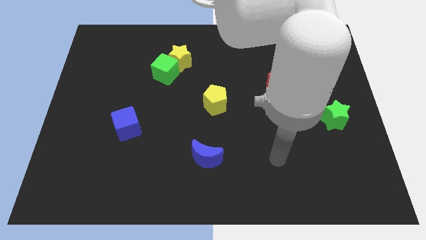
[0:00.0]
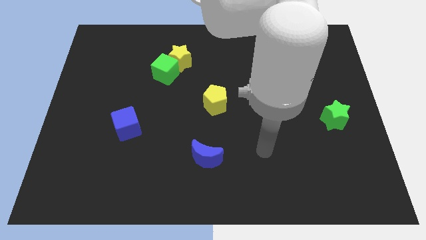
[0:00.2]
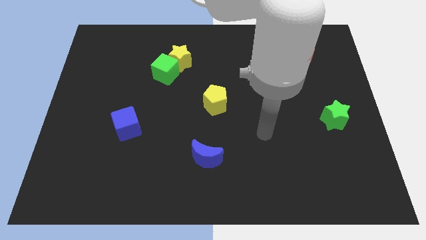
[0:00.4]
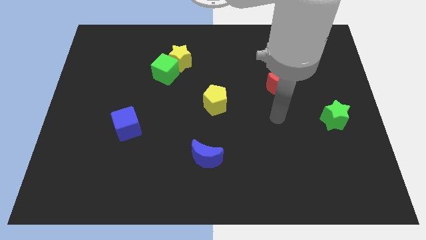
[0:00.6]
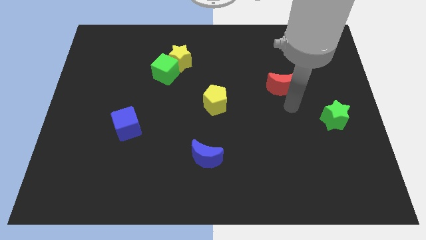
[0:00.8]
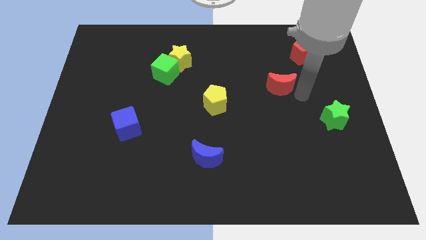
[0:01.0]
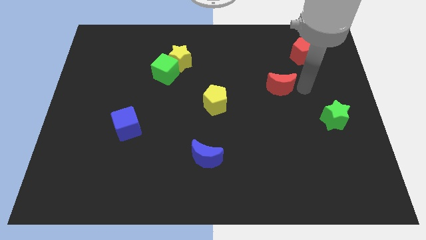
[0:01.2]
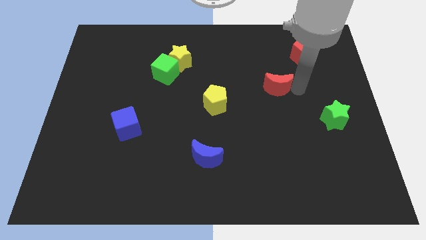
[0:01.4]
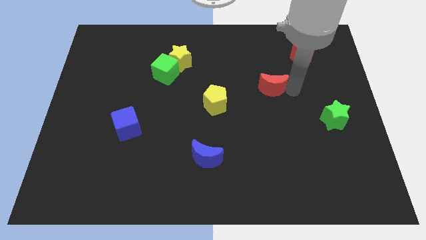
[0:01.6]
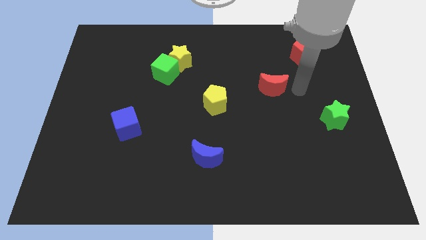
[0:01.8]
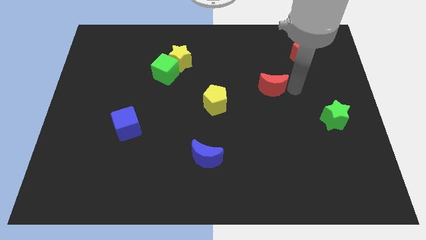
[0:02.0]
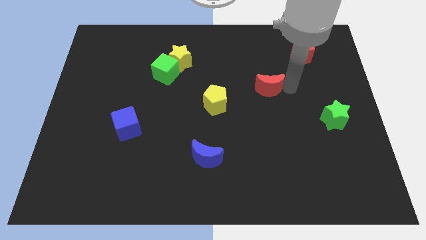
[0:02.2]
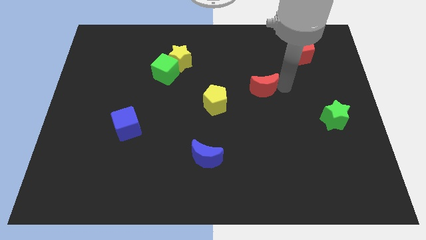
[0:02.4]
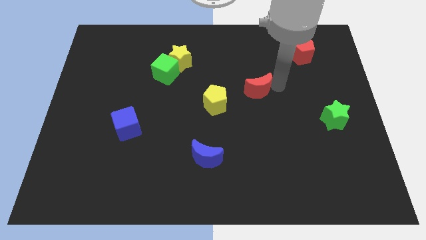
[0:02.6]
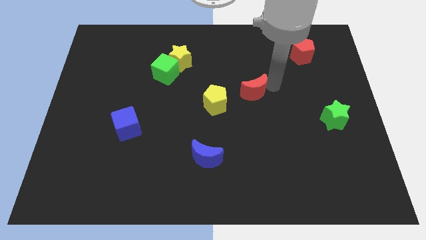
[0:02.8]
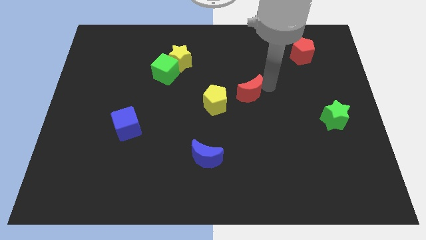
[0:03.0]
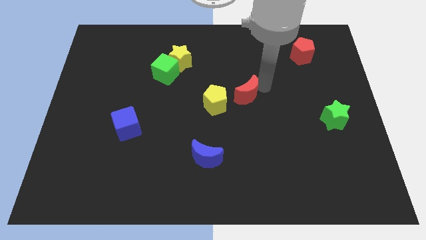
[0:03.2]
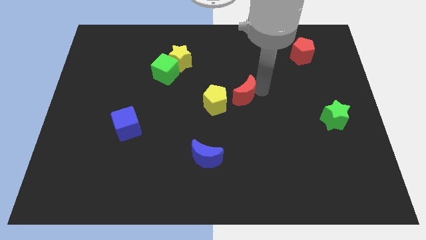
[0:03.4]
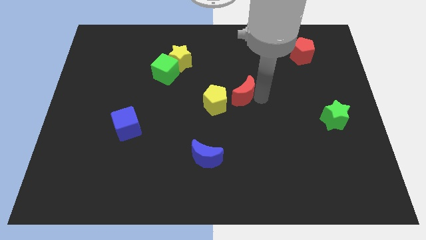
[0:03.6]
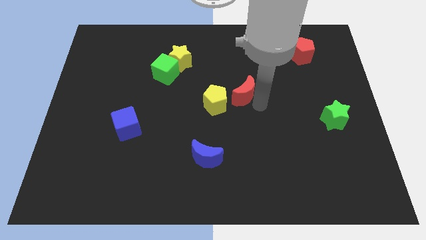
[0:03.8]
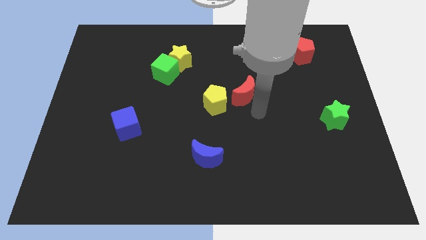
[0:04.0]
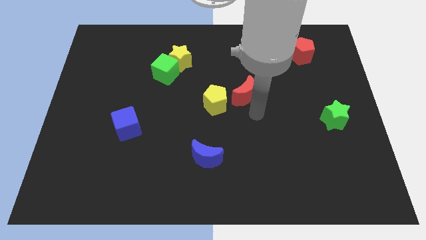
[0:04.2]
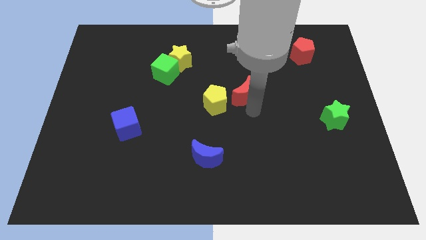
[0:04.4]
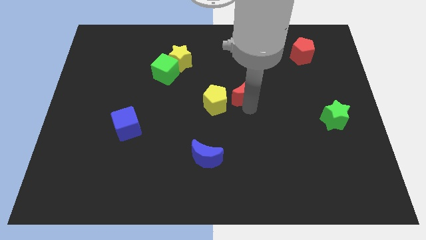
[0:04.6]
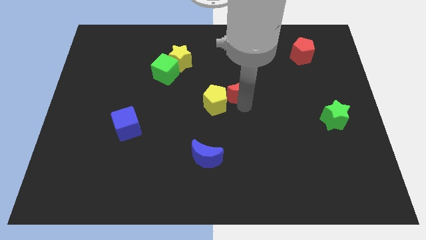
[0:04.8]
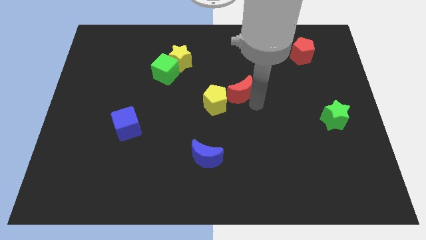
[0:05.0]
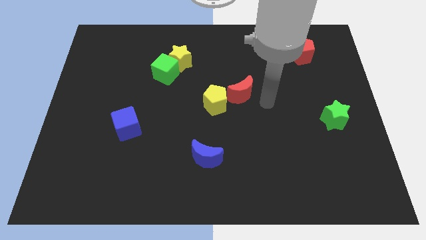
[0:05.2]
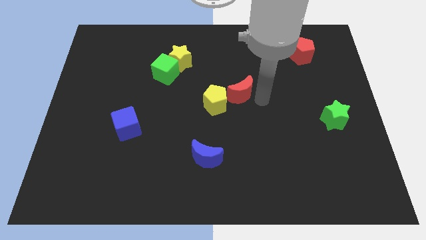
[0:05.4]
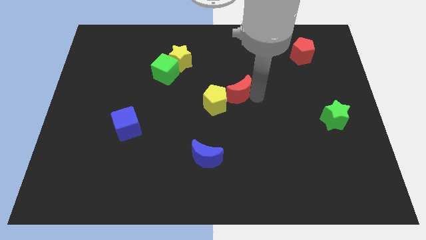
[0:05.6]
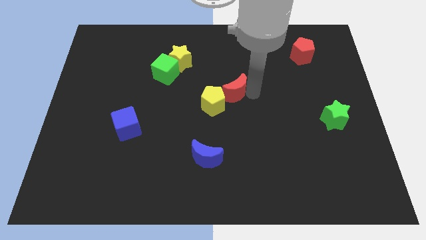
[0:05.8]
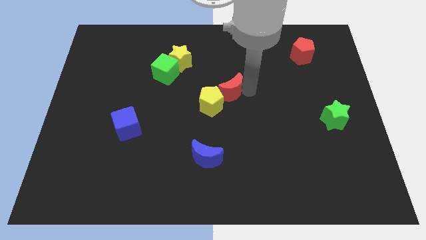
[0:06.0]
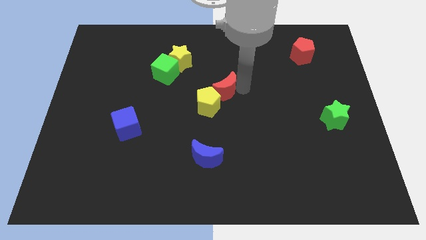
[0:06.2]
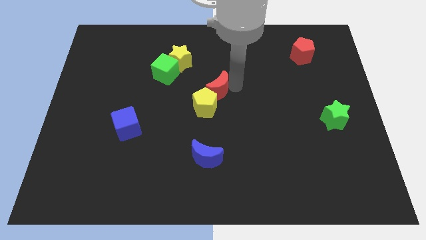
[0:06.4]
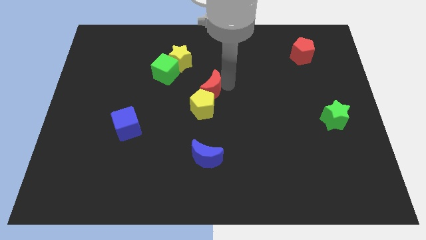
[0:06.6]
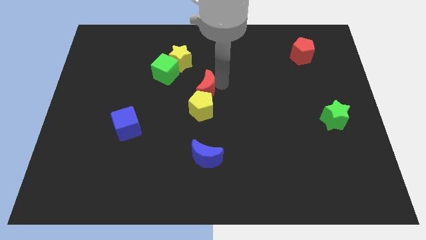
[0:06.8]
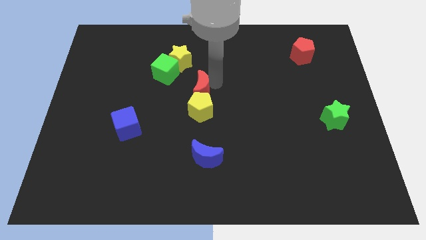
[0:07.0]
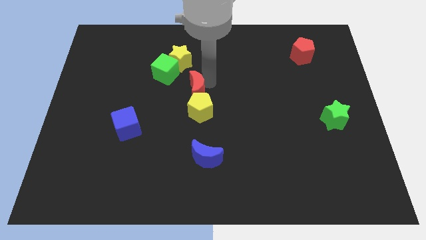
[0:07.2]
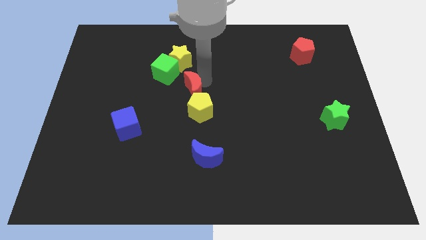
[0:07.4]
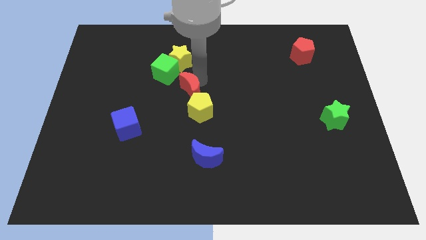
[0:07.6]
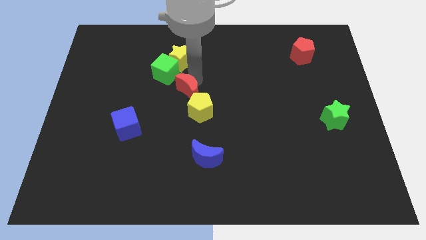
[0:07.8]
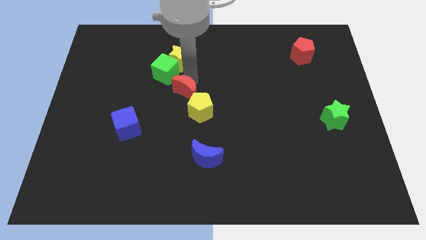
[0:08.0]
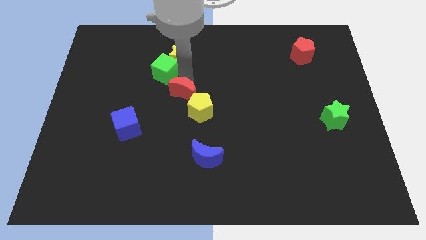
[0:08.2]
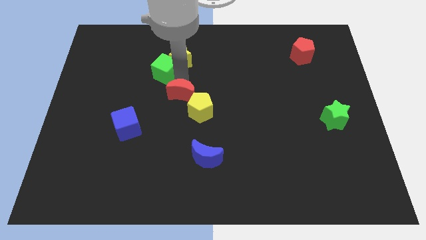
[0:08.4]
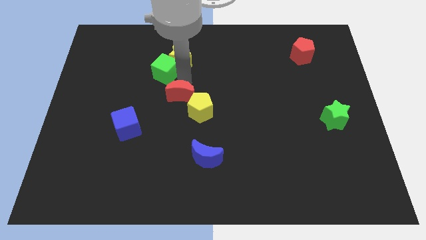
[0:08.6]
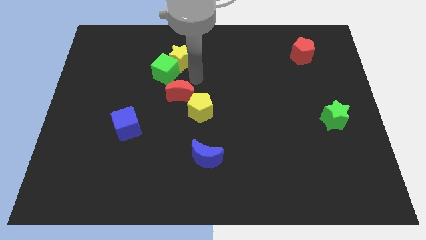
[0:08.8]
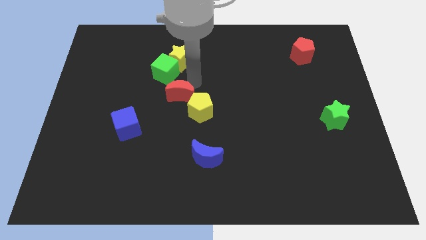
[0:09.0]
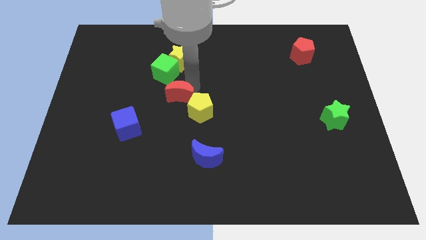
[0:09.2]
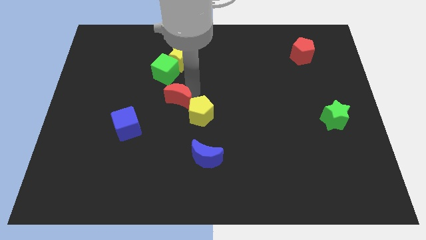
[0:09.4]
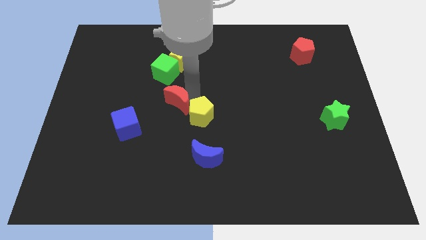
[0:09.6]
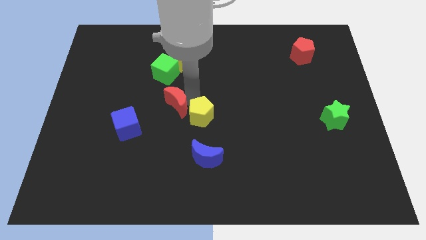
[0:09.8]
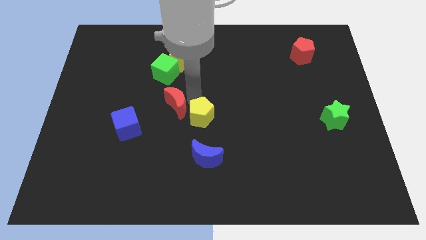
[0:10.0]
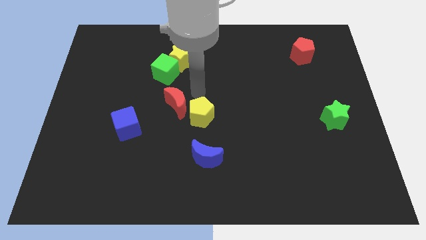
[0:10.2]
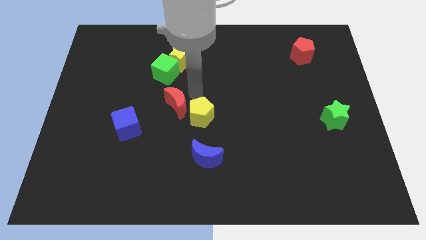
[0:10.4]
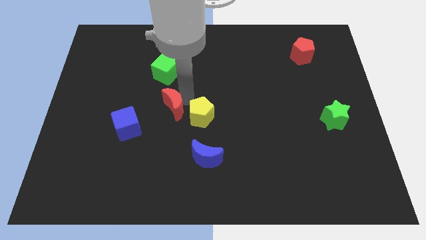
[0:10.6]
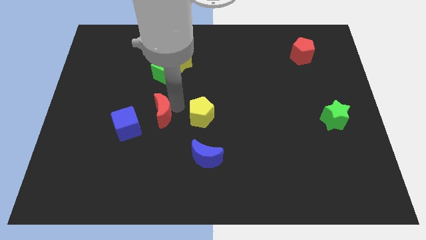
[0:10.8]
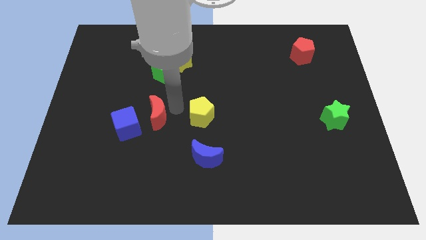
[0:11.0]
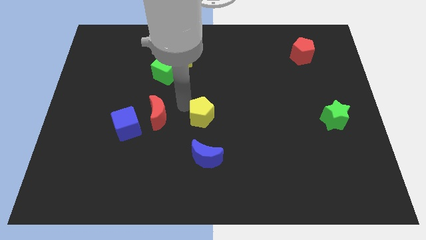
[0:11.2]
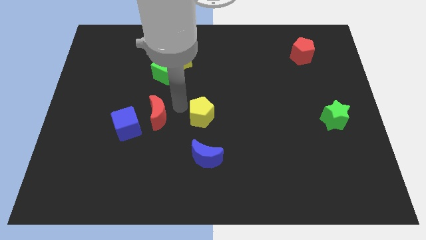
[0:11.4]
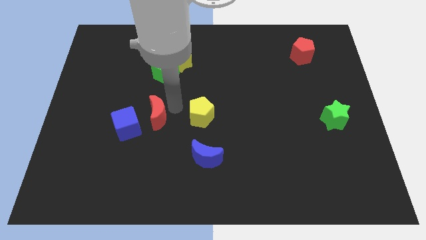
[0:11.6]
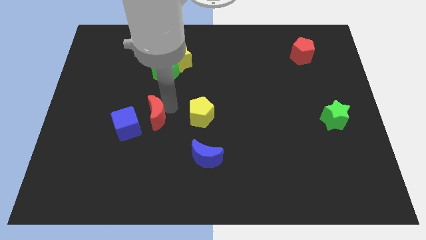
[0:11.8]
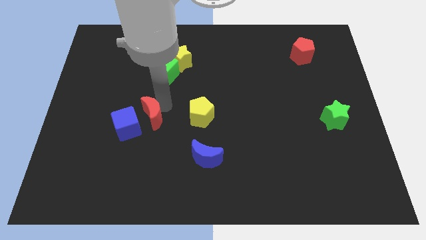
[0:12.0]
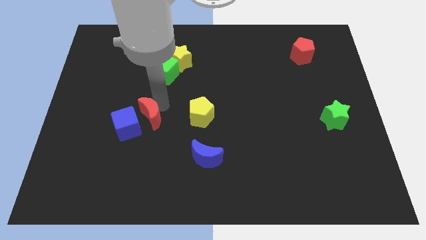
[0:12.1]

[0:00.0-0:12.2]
put the red moon close to the blue cube

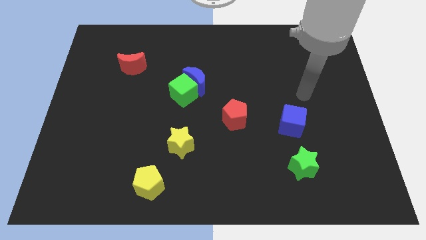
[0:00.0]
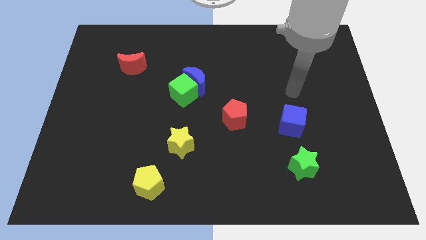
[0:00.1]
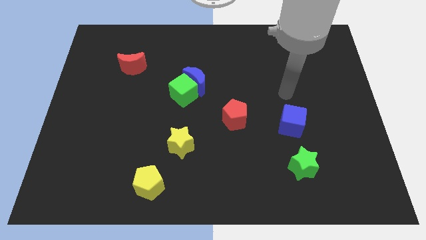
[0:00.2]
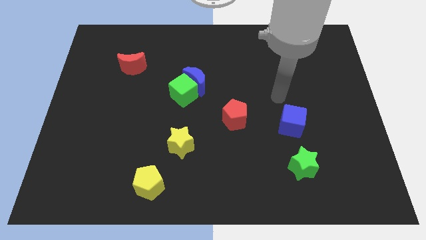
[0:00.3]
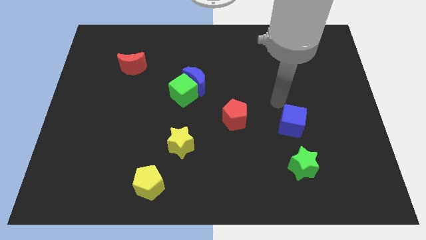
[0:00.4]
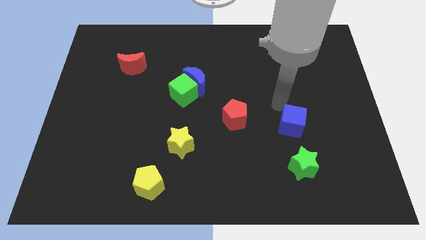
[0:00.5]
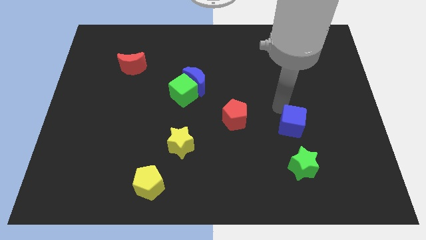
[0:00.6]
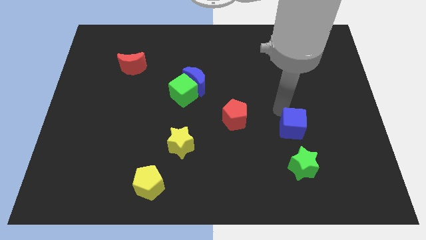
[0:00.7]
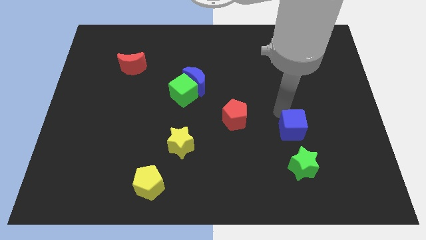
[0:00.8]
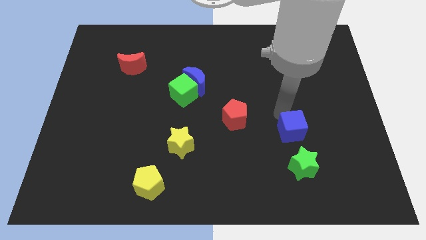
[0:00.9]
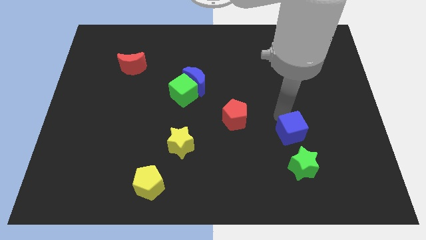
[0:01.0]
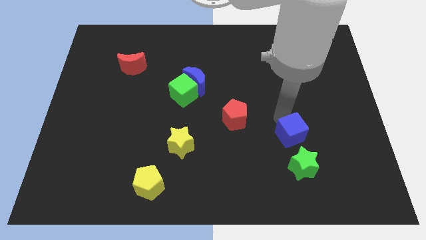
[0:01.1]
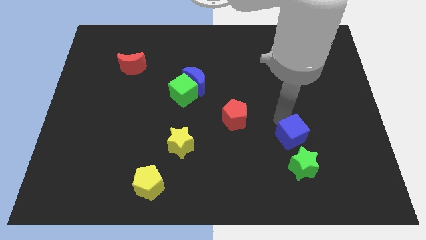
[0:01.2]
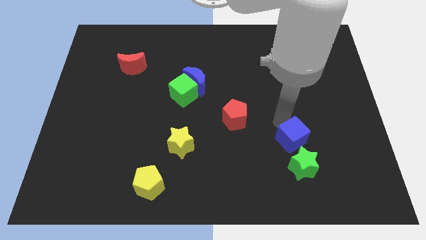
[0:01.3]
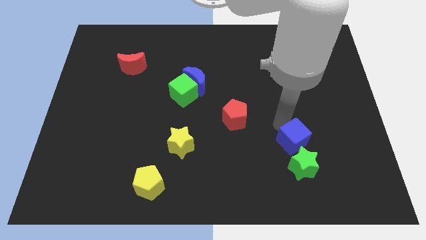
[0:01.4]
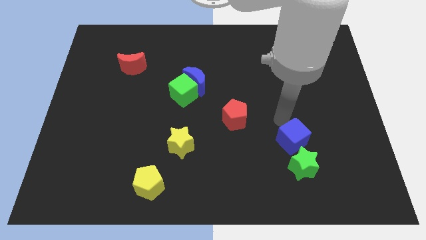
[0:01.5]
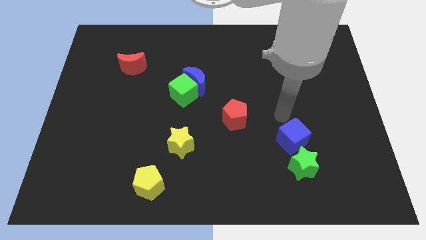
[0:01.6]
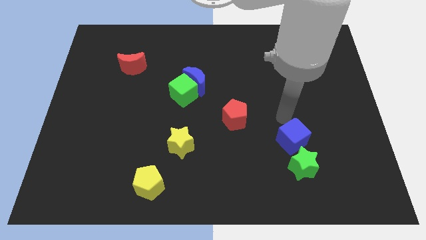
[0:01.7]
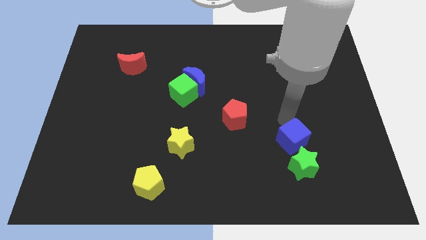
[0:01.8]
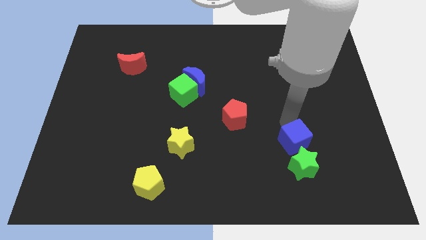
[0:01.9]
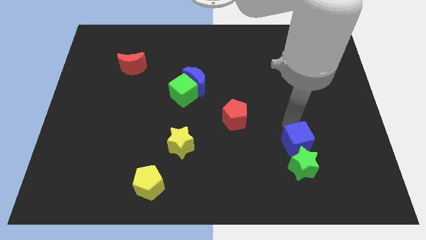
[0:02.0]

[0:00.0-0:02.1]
put the blue cube towards the green star
